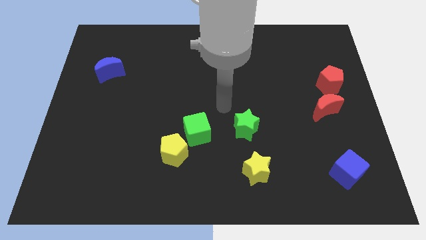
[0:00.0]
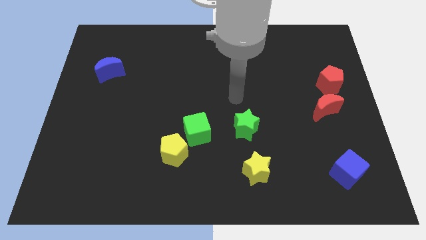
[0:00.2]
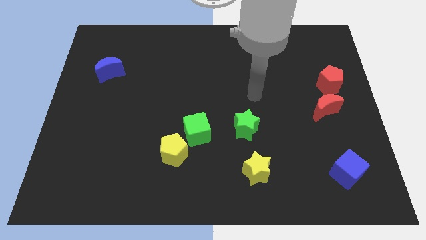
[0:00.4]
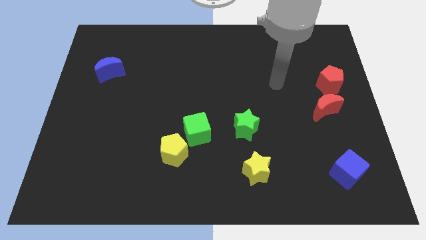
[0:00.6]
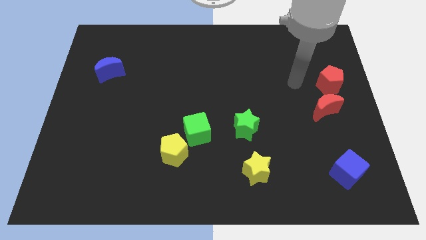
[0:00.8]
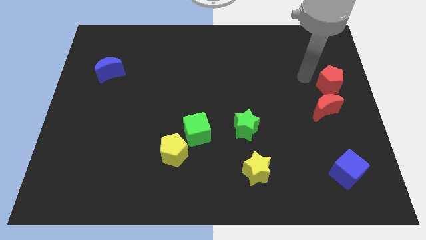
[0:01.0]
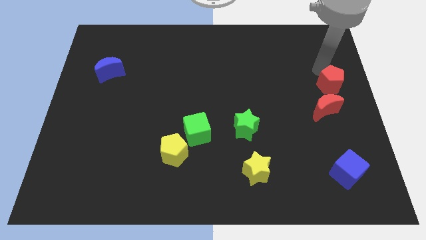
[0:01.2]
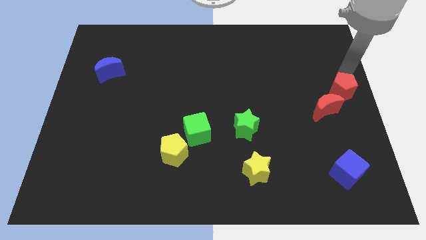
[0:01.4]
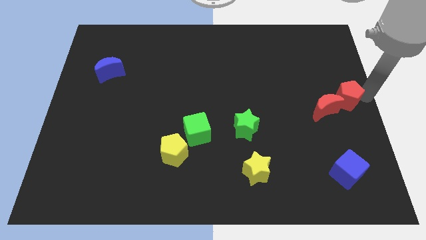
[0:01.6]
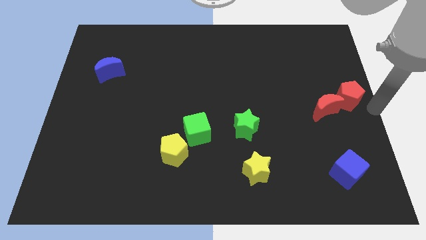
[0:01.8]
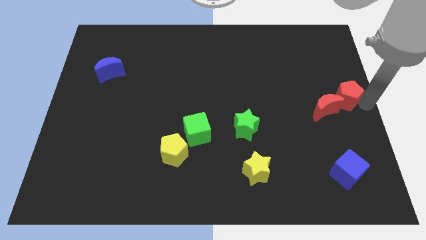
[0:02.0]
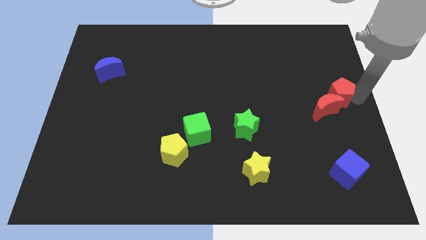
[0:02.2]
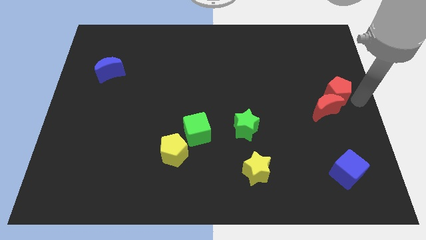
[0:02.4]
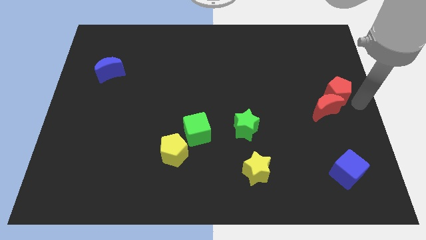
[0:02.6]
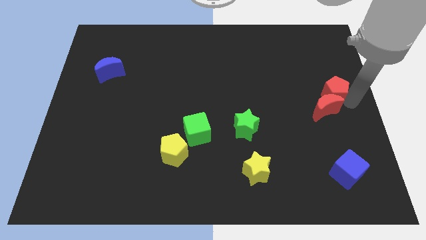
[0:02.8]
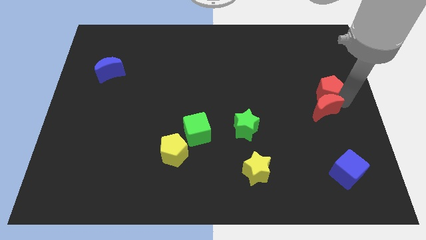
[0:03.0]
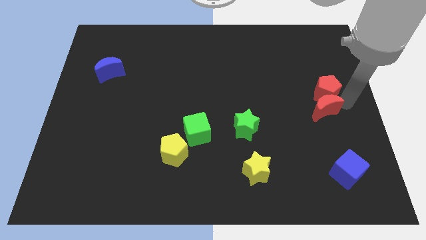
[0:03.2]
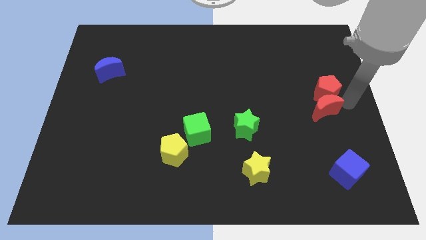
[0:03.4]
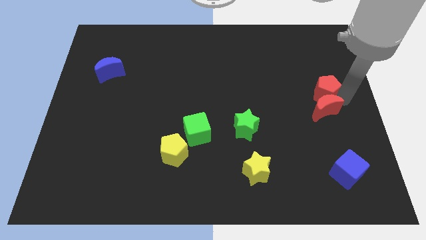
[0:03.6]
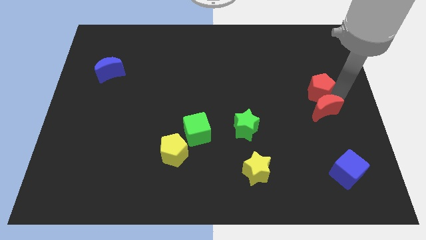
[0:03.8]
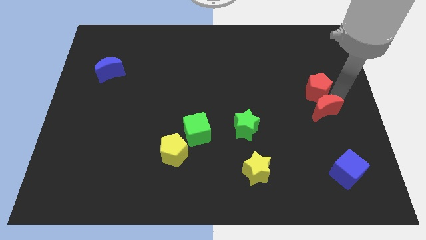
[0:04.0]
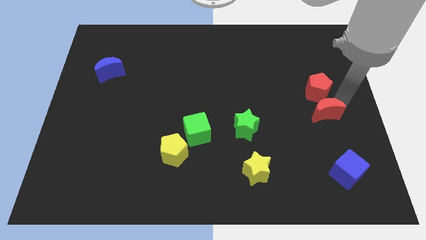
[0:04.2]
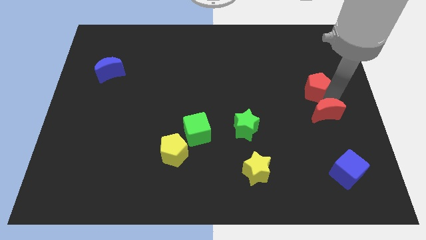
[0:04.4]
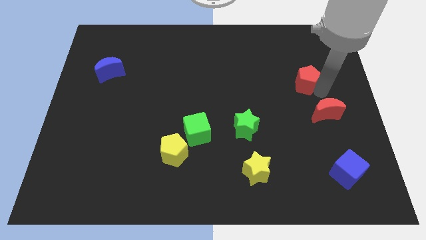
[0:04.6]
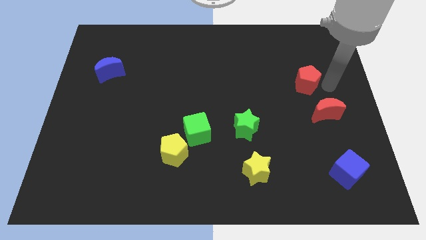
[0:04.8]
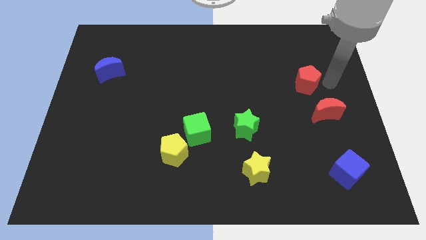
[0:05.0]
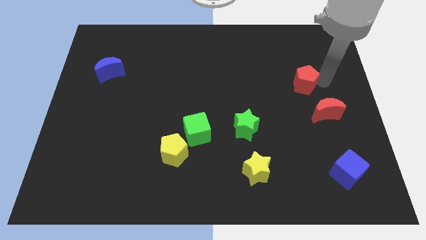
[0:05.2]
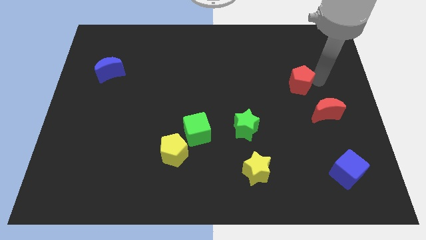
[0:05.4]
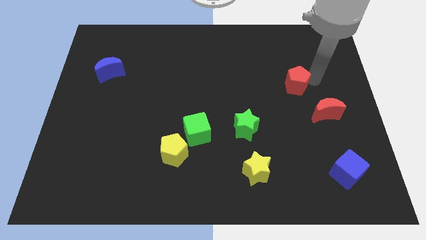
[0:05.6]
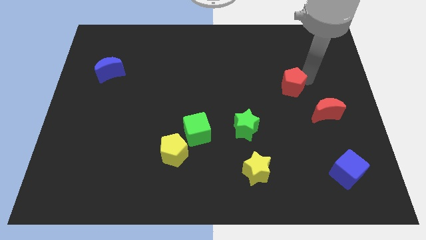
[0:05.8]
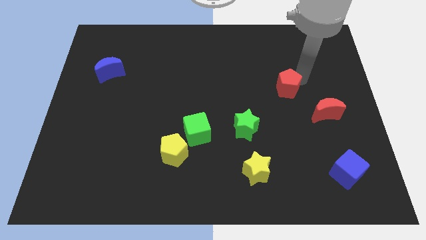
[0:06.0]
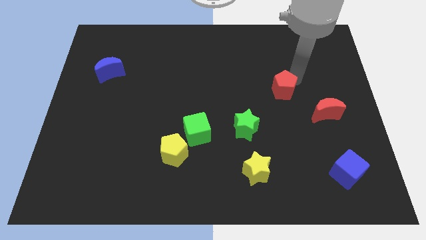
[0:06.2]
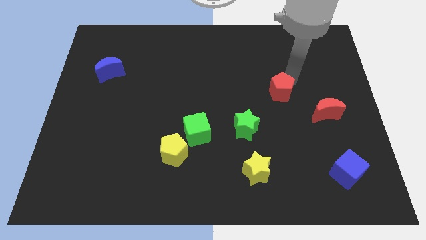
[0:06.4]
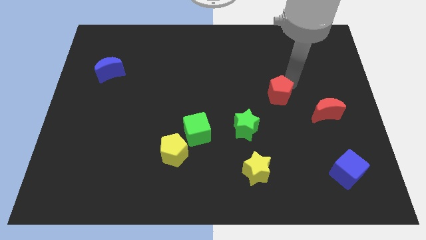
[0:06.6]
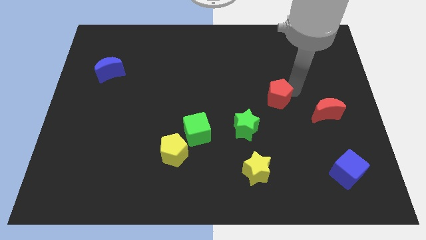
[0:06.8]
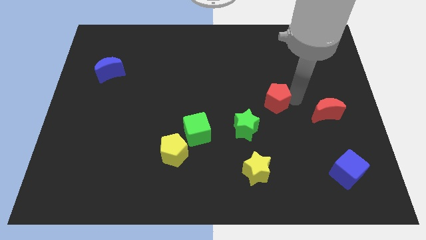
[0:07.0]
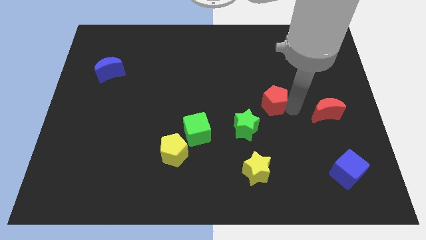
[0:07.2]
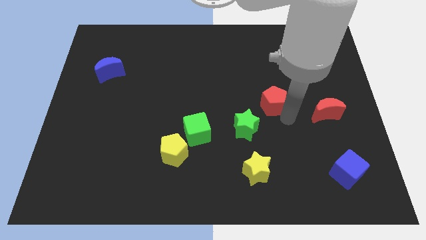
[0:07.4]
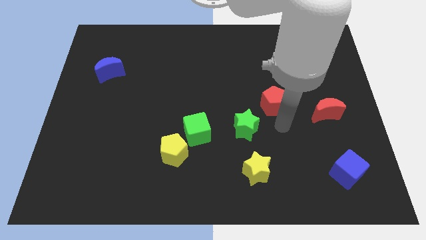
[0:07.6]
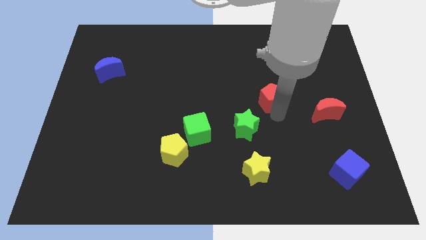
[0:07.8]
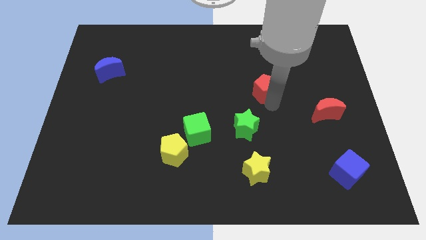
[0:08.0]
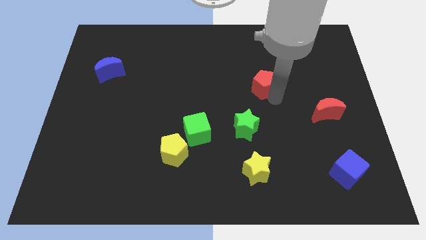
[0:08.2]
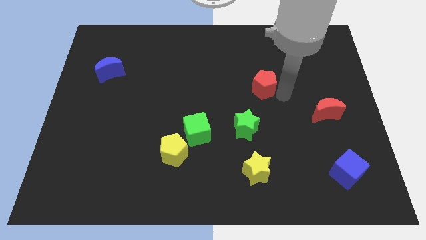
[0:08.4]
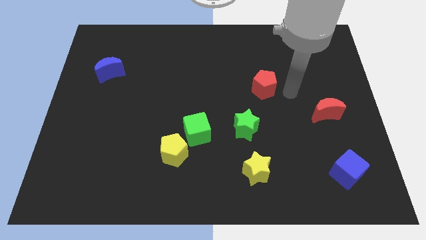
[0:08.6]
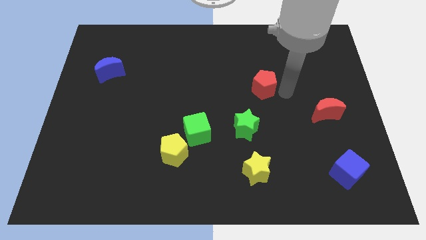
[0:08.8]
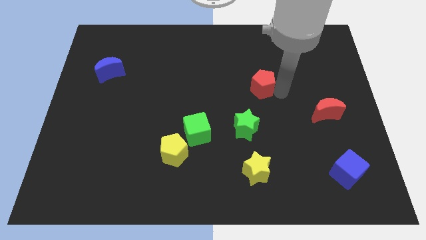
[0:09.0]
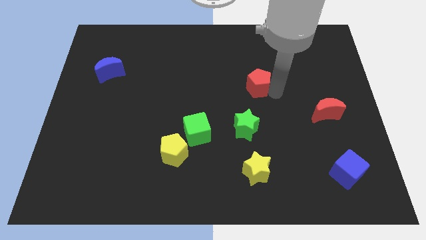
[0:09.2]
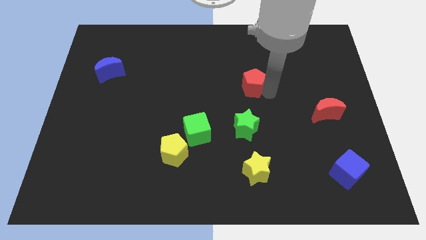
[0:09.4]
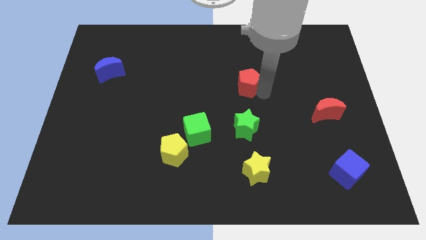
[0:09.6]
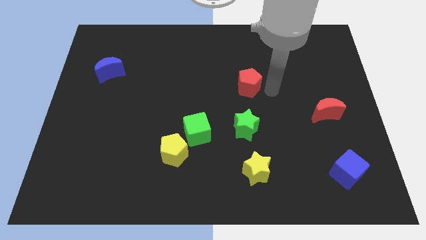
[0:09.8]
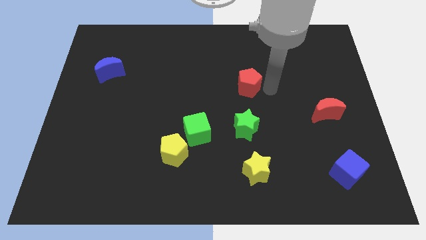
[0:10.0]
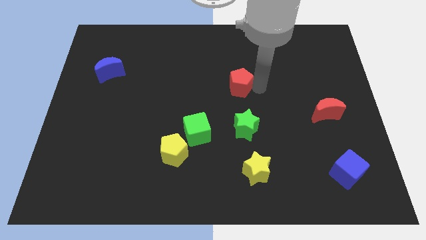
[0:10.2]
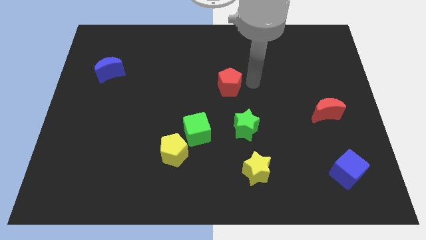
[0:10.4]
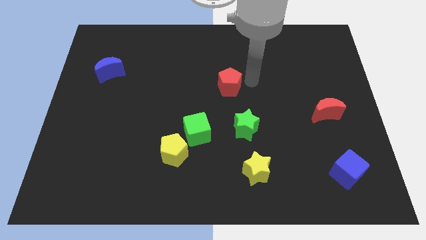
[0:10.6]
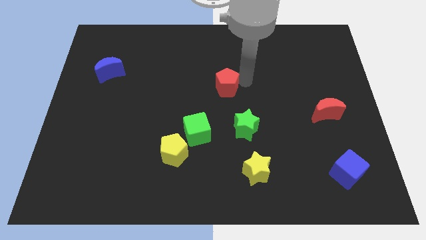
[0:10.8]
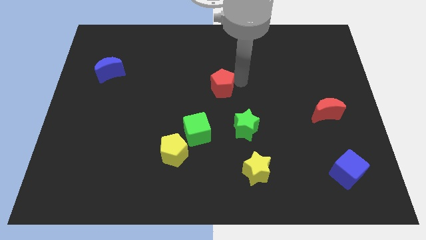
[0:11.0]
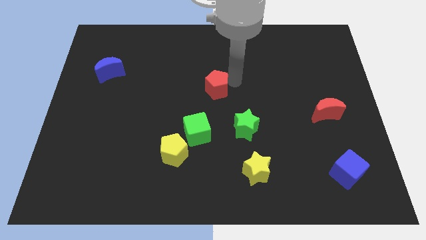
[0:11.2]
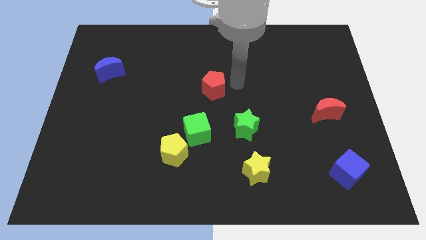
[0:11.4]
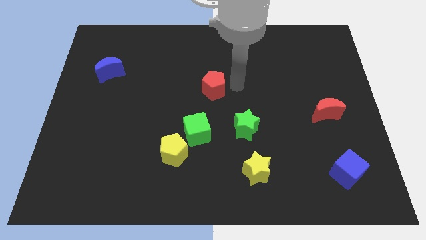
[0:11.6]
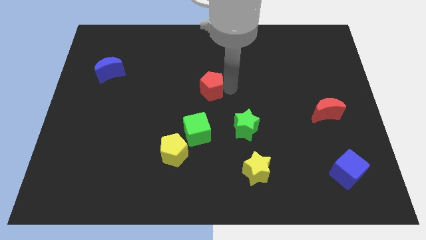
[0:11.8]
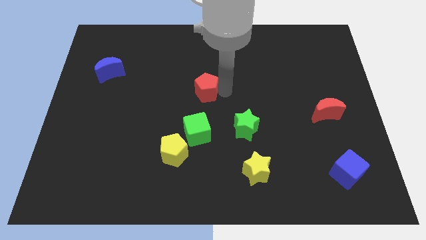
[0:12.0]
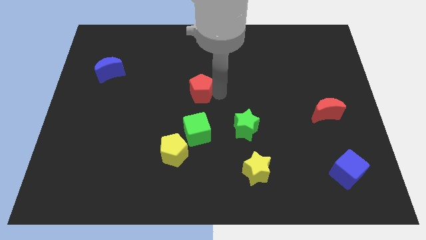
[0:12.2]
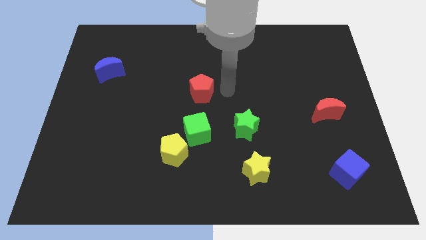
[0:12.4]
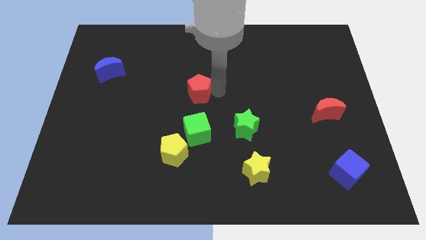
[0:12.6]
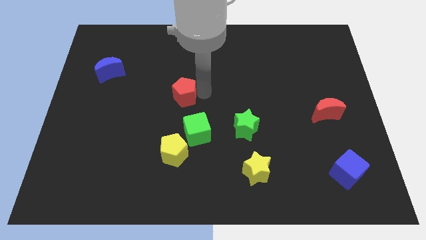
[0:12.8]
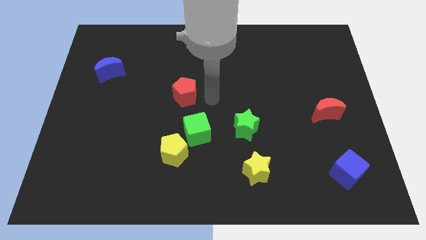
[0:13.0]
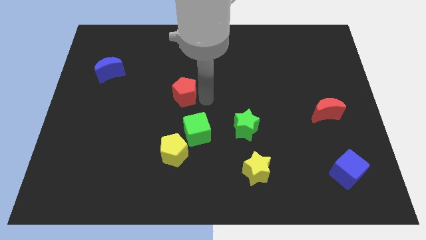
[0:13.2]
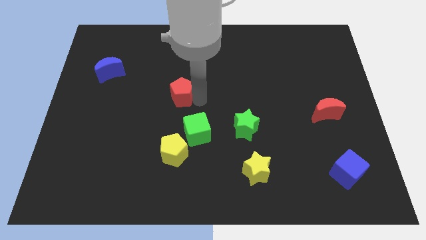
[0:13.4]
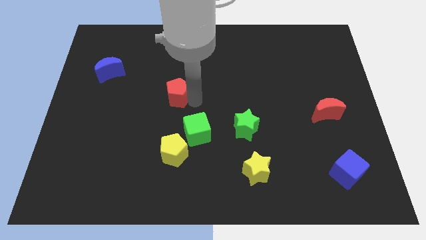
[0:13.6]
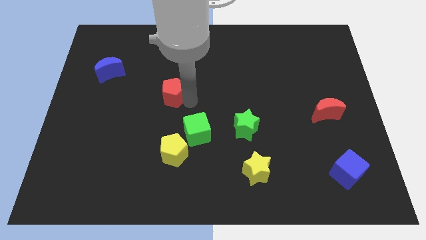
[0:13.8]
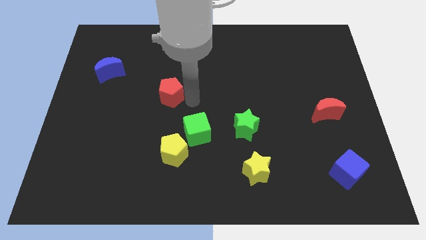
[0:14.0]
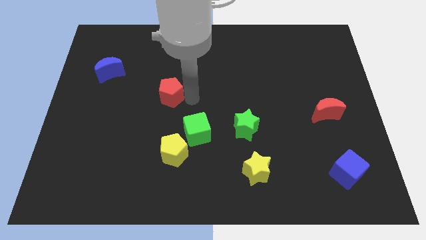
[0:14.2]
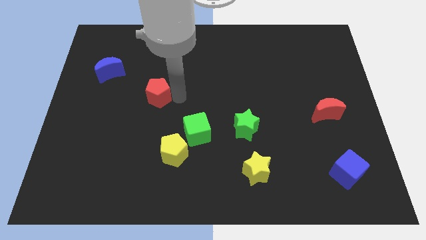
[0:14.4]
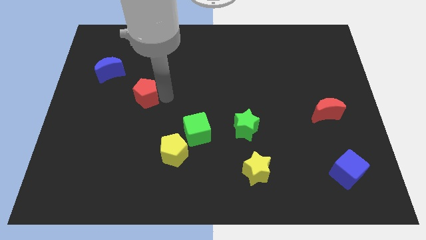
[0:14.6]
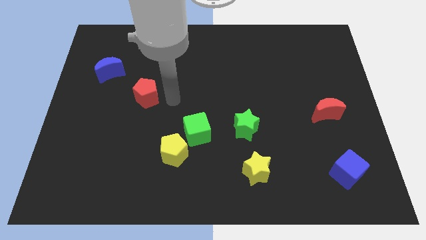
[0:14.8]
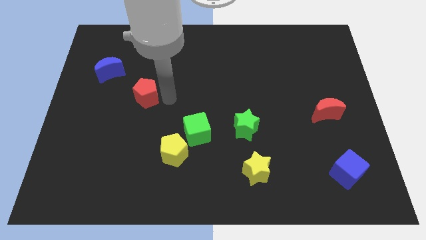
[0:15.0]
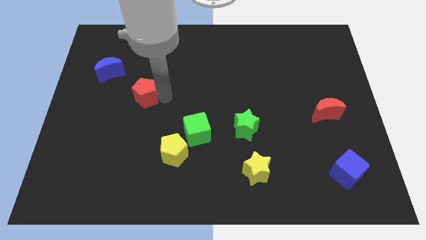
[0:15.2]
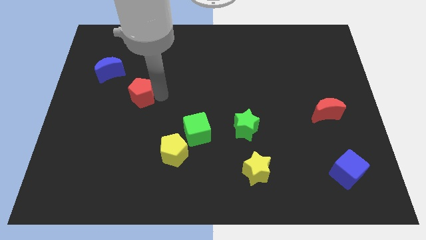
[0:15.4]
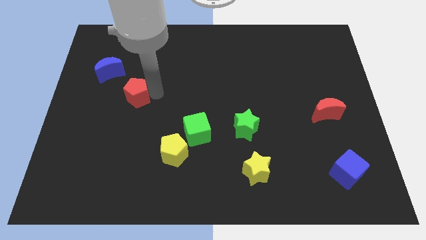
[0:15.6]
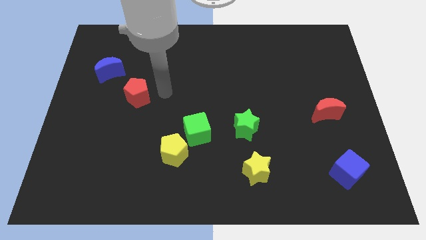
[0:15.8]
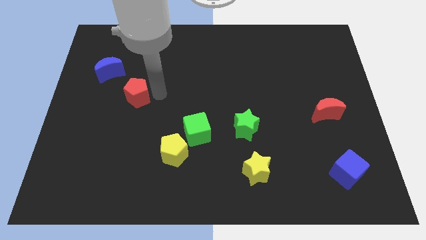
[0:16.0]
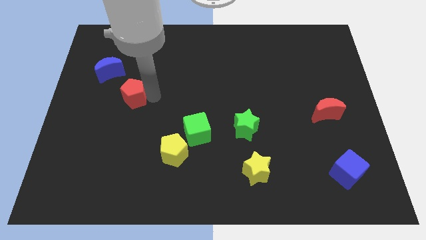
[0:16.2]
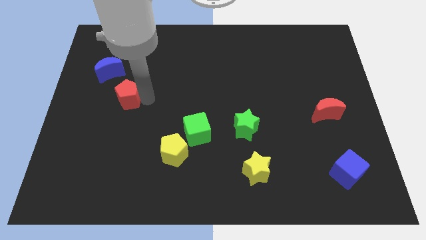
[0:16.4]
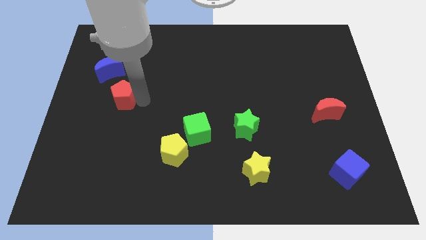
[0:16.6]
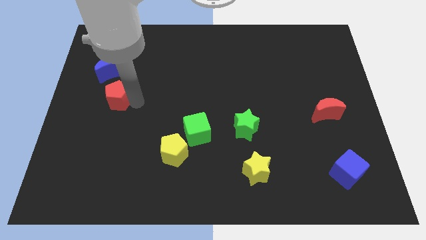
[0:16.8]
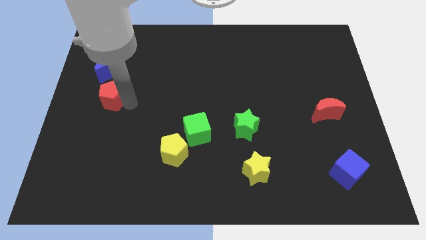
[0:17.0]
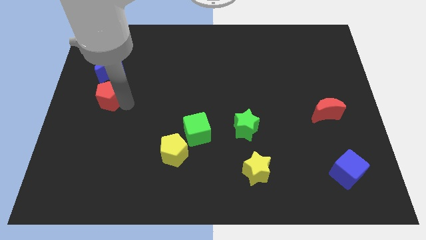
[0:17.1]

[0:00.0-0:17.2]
put the red pentagon to the center left
